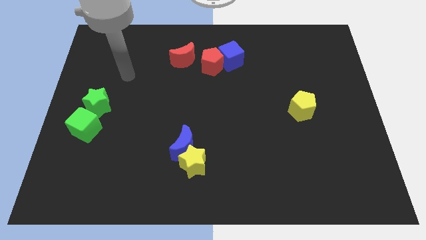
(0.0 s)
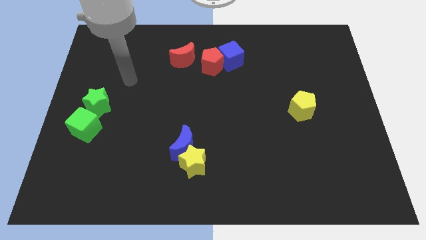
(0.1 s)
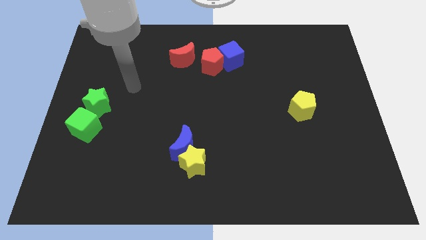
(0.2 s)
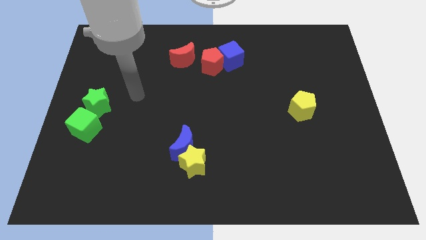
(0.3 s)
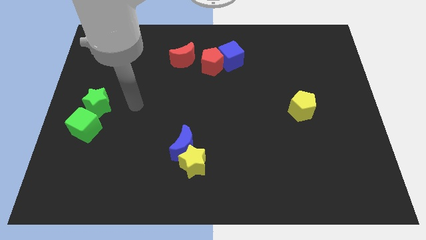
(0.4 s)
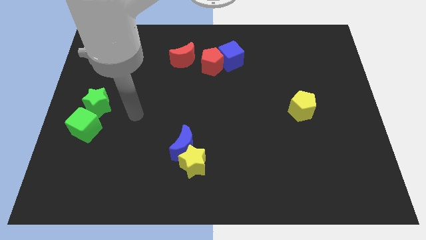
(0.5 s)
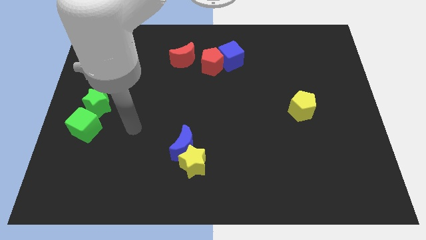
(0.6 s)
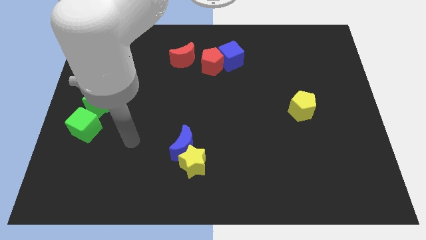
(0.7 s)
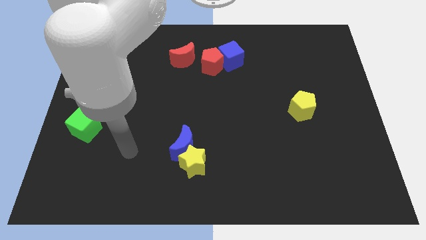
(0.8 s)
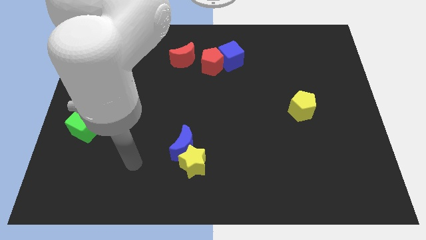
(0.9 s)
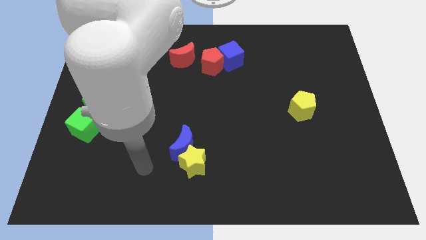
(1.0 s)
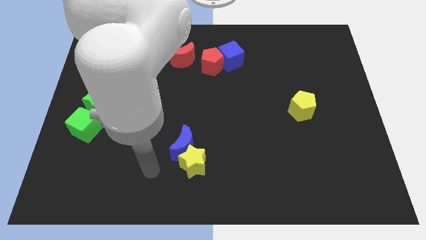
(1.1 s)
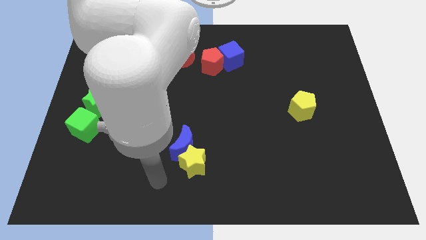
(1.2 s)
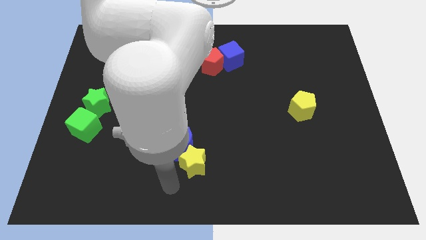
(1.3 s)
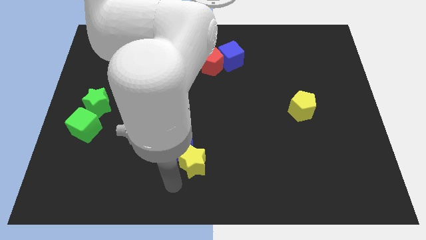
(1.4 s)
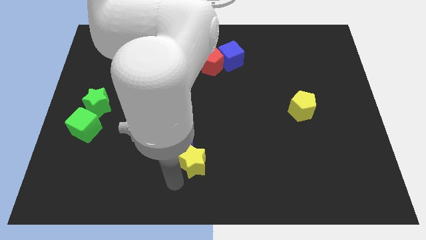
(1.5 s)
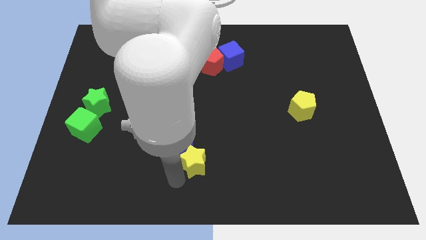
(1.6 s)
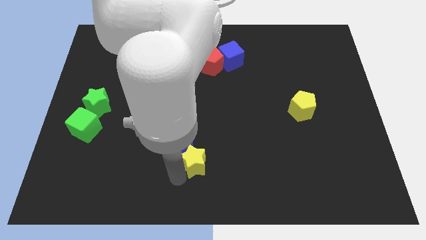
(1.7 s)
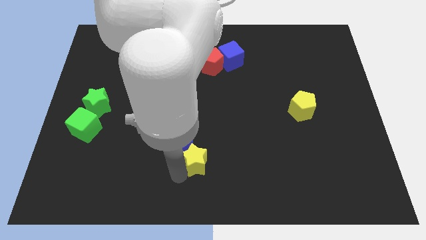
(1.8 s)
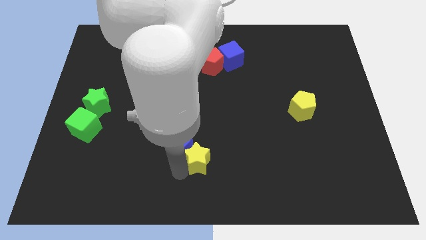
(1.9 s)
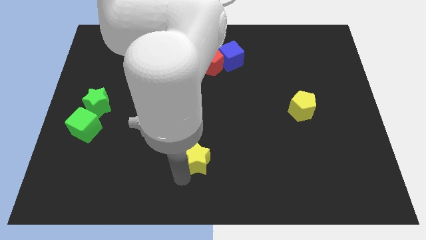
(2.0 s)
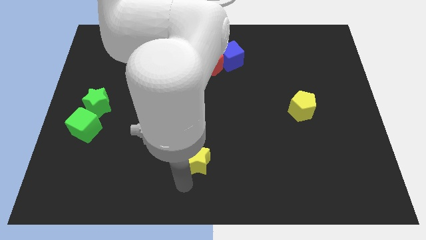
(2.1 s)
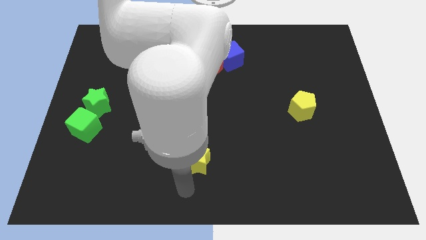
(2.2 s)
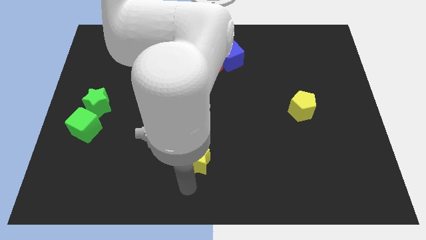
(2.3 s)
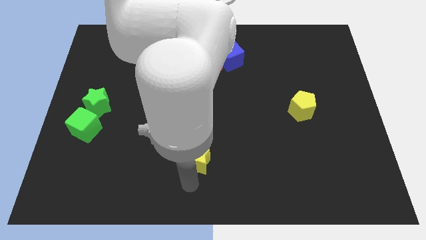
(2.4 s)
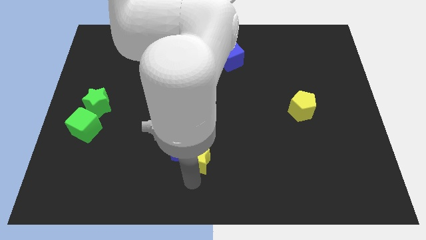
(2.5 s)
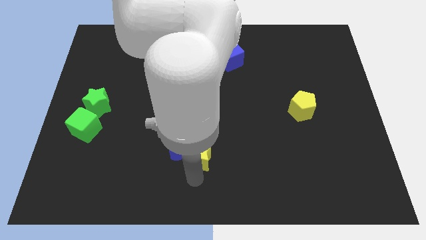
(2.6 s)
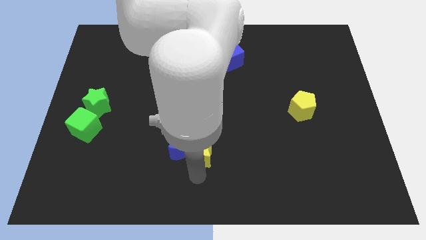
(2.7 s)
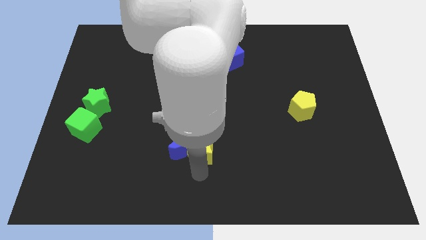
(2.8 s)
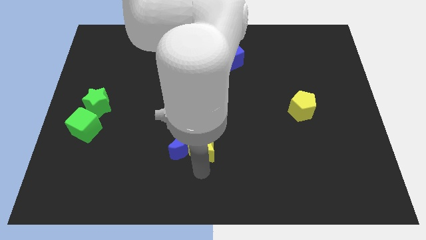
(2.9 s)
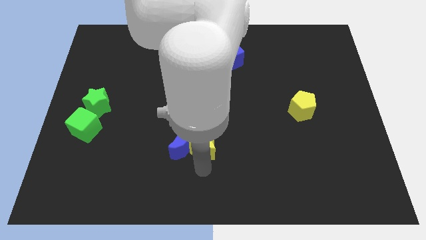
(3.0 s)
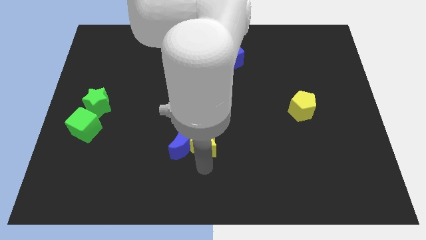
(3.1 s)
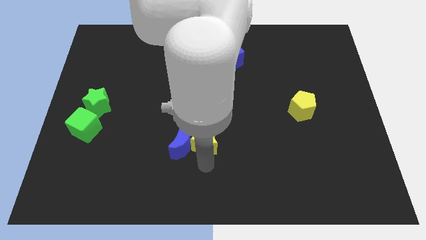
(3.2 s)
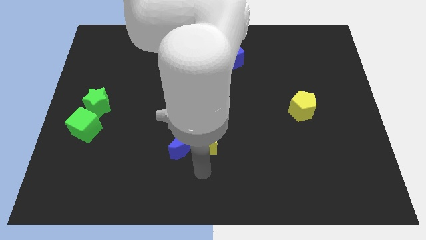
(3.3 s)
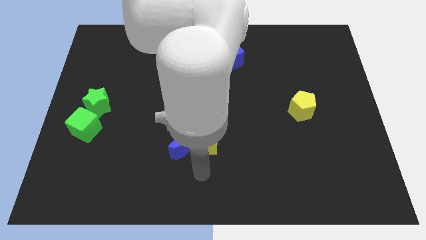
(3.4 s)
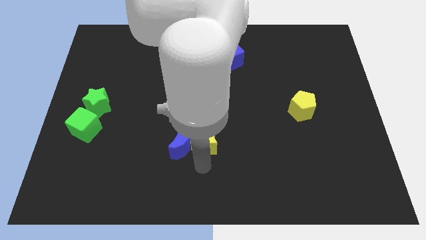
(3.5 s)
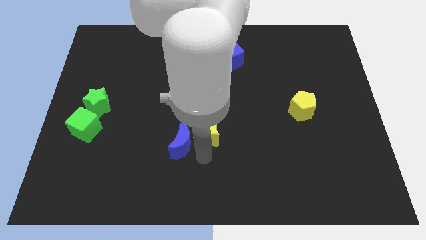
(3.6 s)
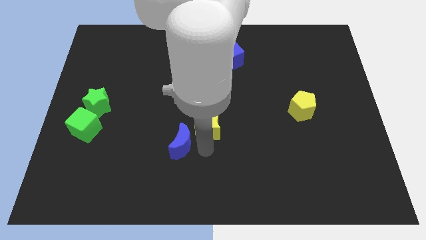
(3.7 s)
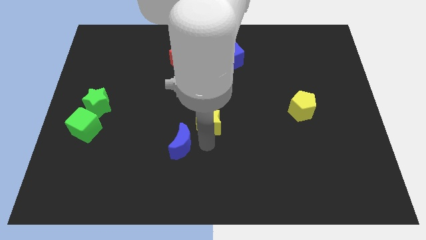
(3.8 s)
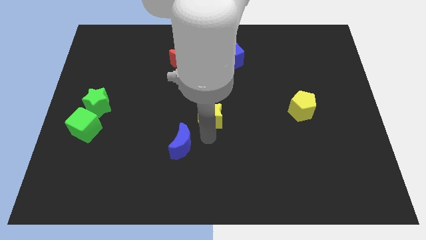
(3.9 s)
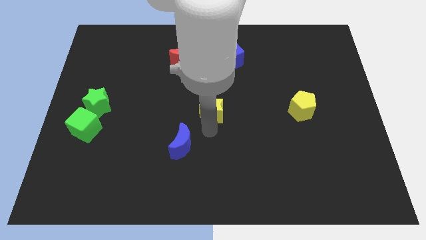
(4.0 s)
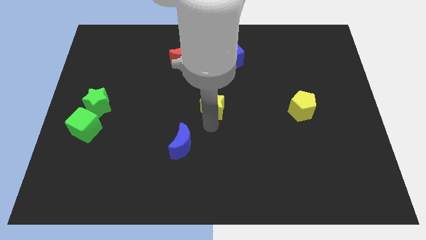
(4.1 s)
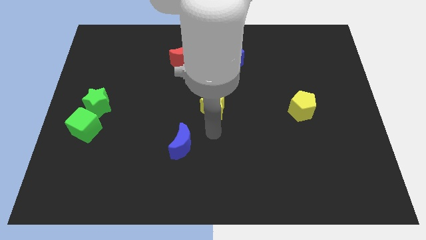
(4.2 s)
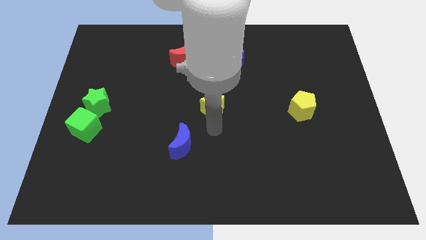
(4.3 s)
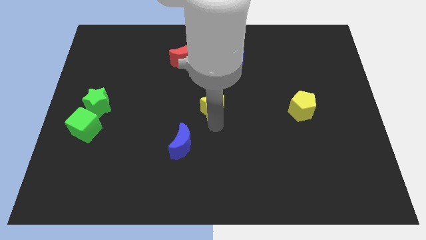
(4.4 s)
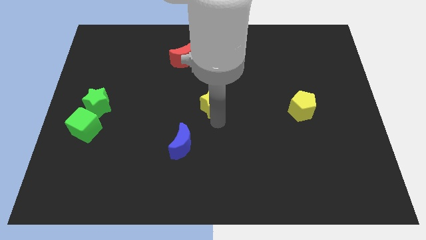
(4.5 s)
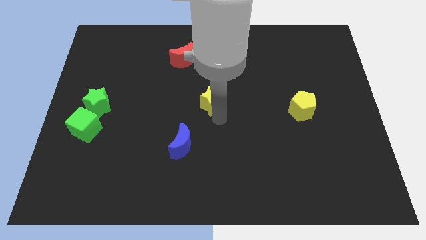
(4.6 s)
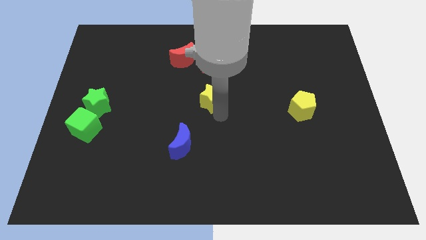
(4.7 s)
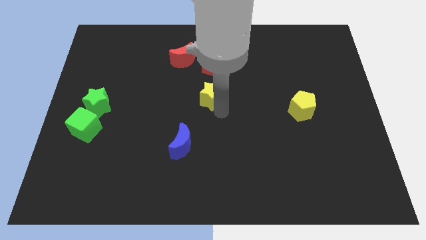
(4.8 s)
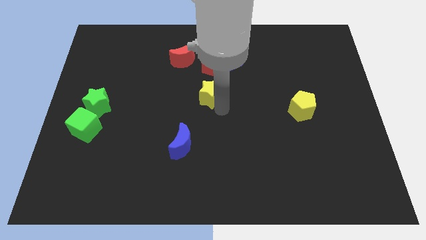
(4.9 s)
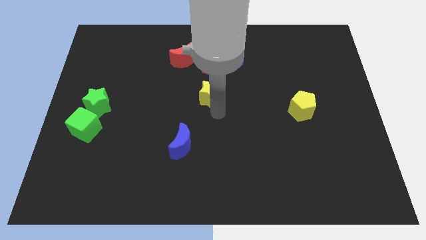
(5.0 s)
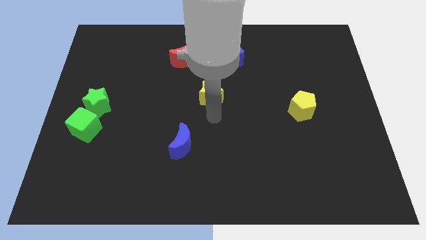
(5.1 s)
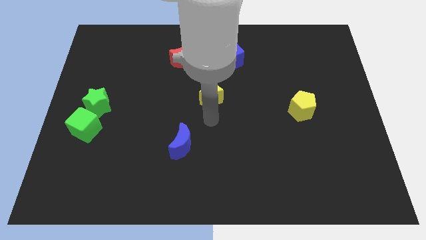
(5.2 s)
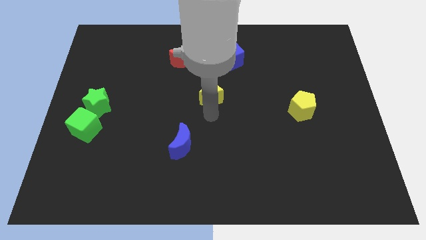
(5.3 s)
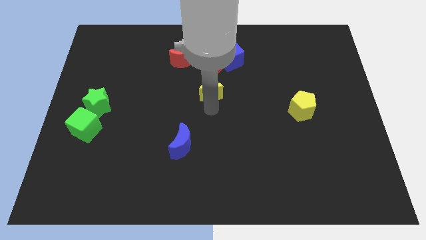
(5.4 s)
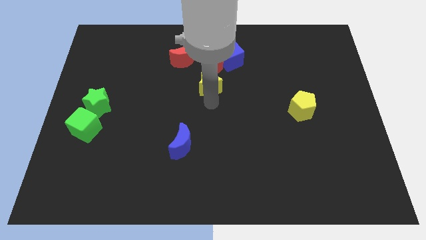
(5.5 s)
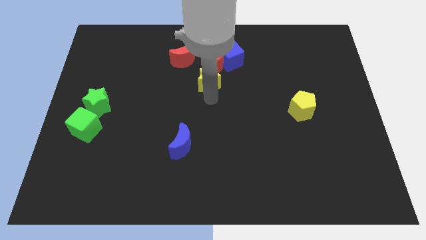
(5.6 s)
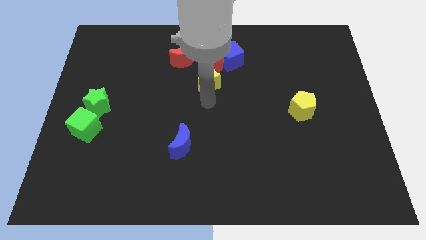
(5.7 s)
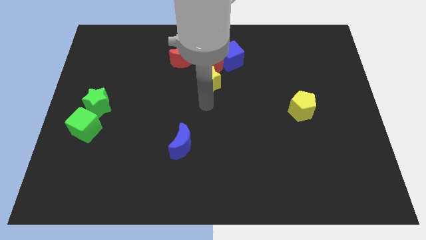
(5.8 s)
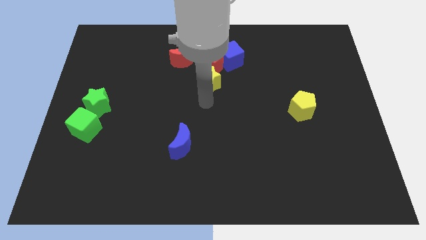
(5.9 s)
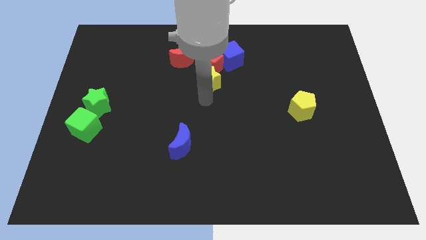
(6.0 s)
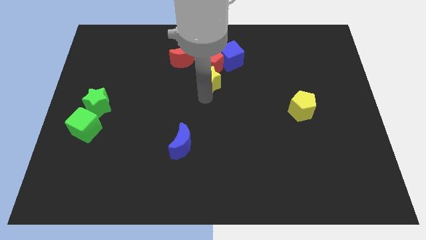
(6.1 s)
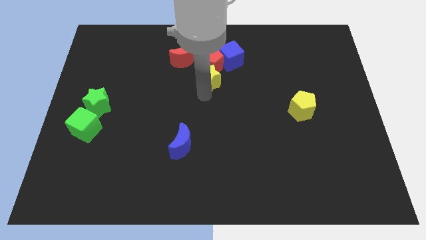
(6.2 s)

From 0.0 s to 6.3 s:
slide the yellow star next to the red pentagon

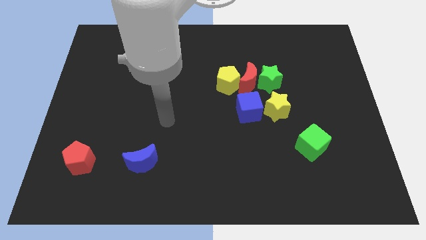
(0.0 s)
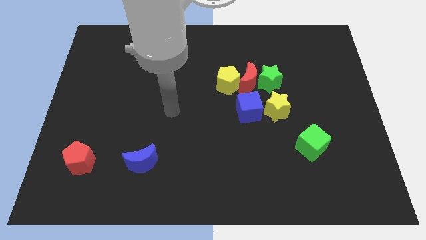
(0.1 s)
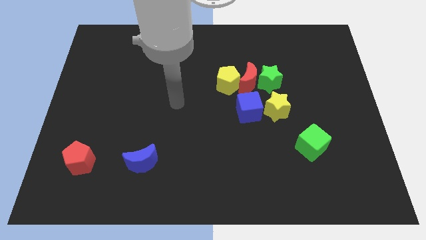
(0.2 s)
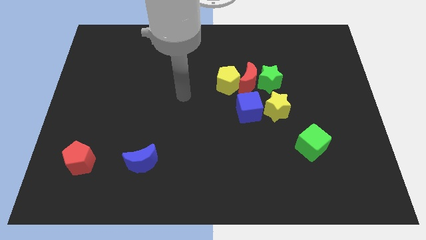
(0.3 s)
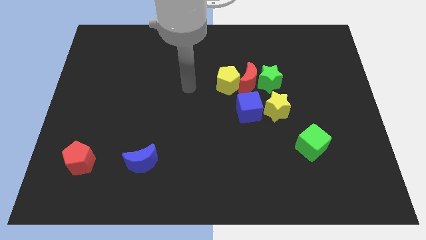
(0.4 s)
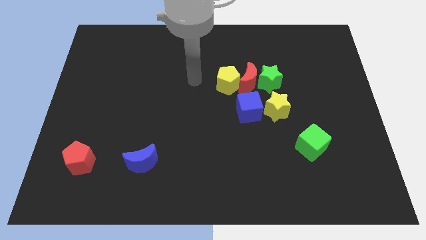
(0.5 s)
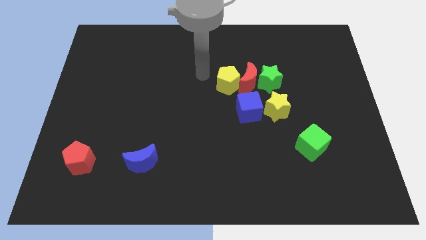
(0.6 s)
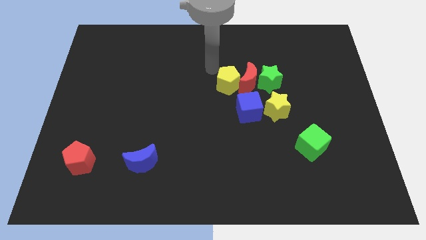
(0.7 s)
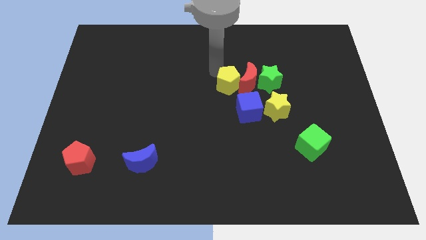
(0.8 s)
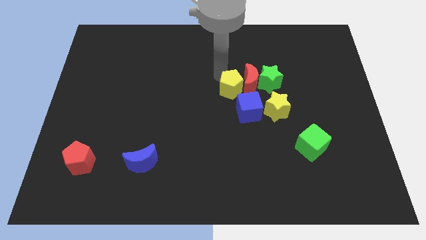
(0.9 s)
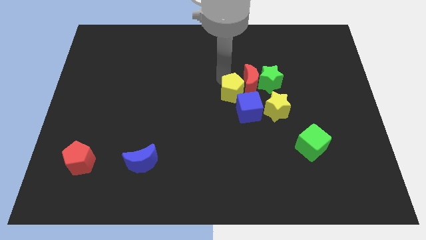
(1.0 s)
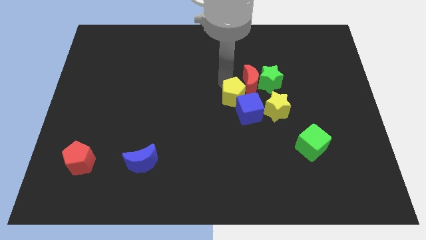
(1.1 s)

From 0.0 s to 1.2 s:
move the yellow pentagon close to the blue cube

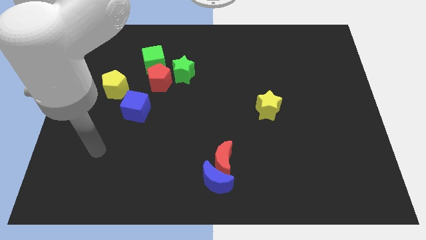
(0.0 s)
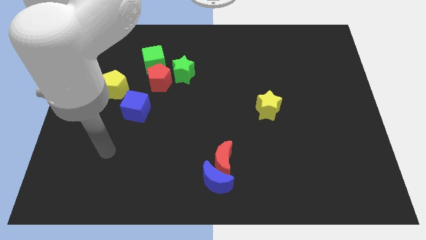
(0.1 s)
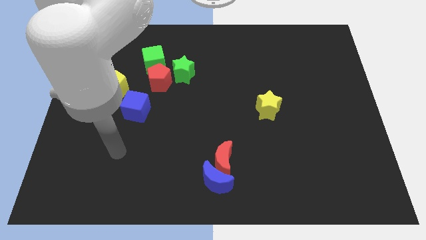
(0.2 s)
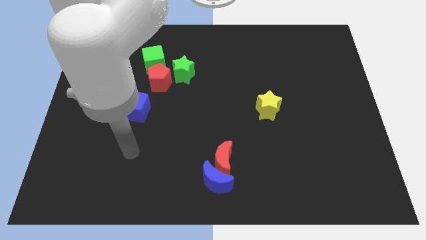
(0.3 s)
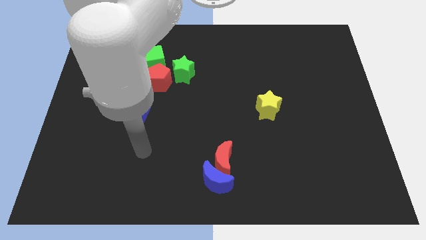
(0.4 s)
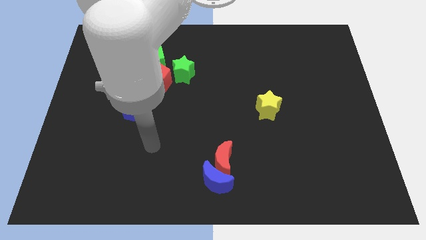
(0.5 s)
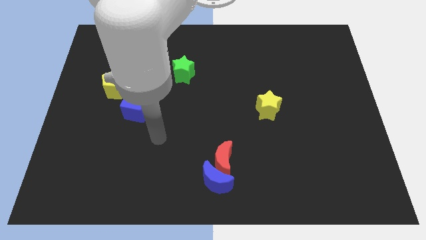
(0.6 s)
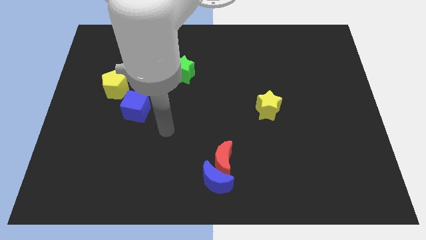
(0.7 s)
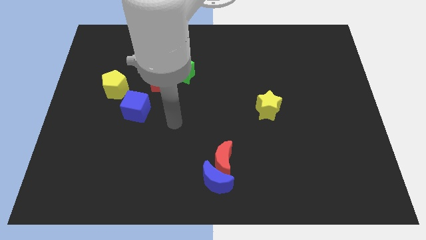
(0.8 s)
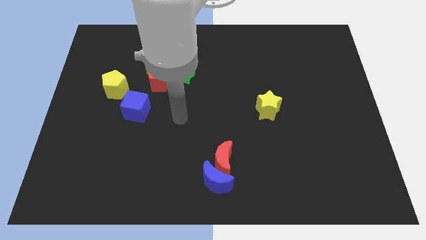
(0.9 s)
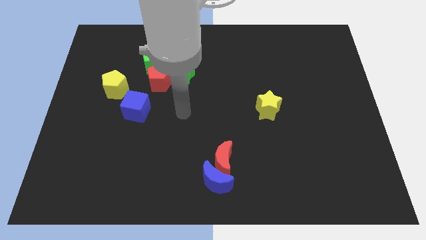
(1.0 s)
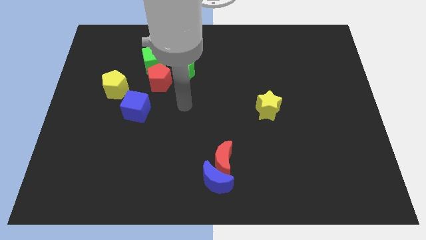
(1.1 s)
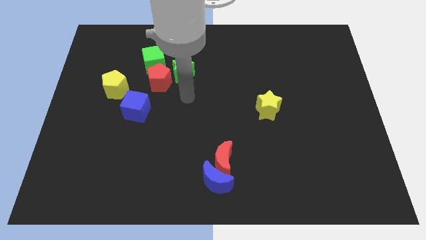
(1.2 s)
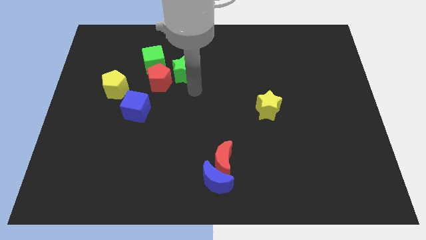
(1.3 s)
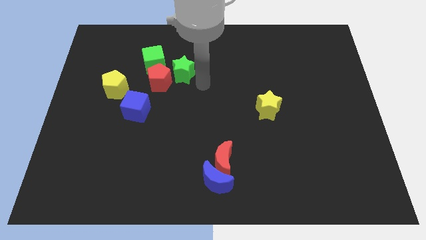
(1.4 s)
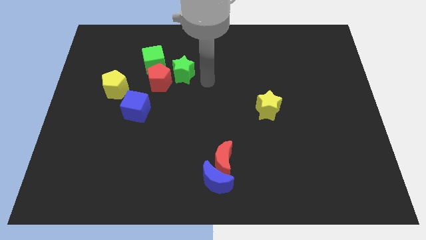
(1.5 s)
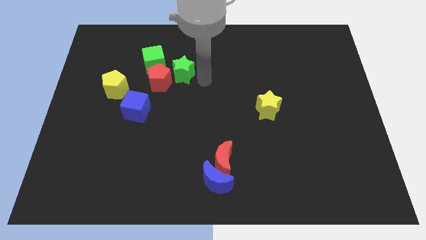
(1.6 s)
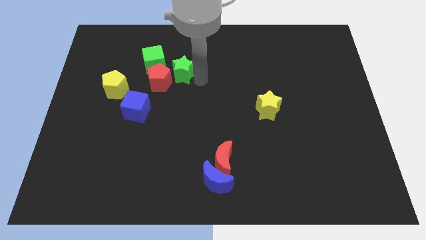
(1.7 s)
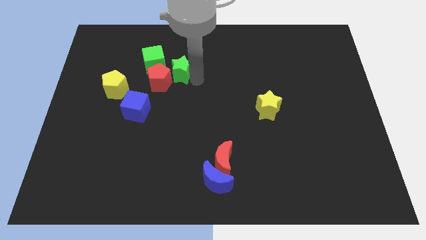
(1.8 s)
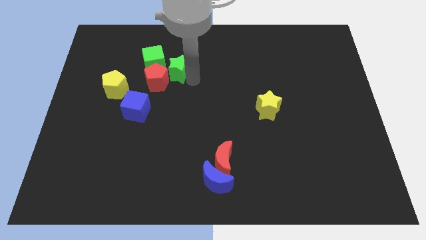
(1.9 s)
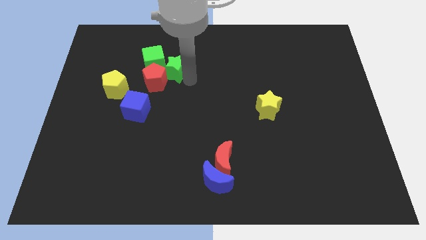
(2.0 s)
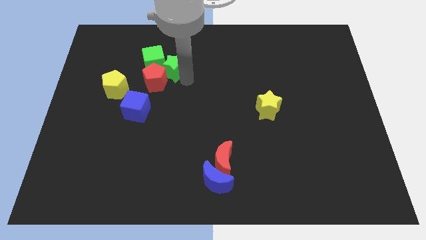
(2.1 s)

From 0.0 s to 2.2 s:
slide the green star next to the green cube
